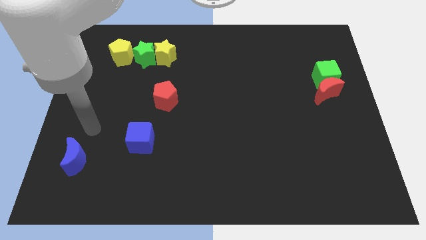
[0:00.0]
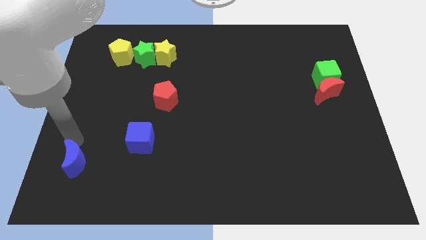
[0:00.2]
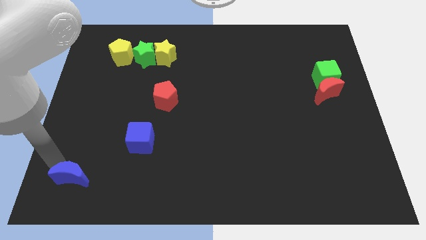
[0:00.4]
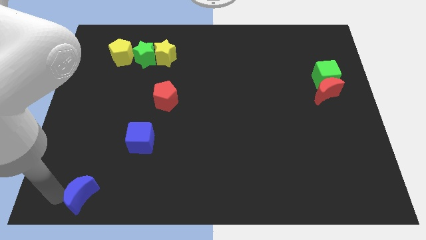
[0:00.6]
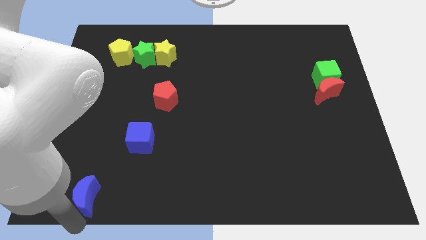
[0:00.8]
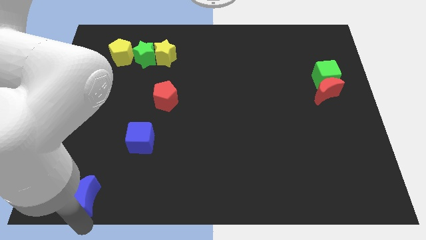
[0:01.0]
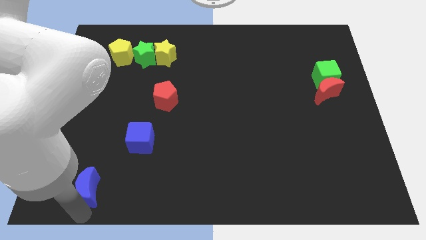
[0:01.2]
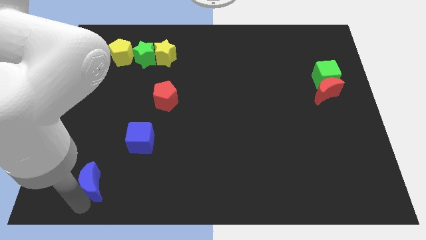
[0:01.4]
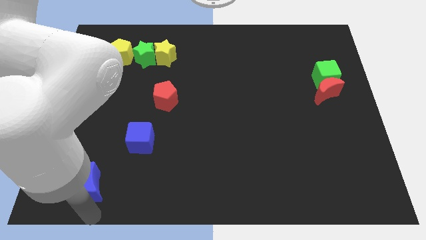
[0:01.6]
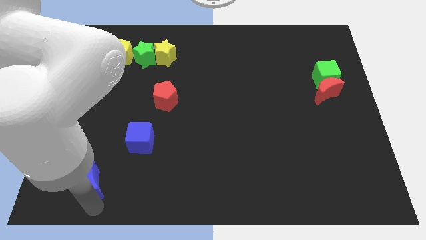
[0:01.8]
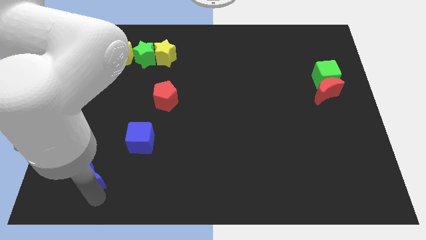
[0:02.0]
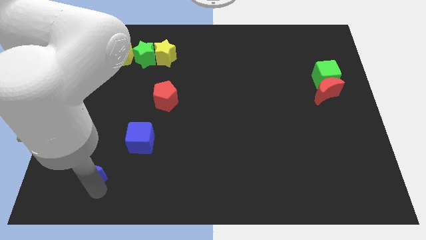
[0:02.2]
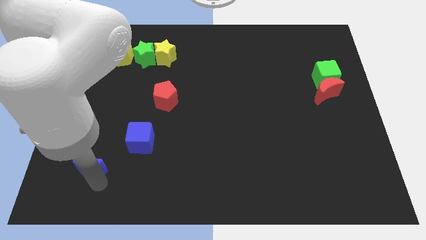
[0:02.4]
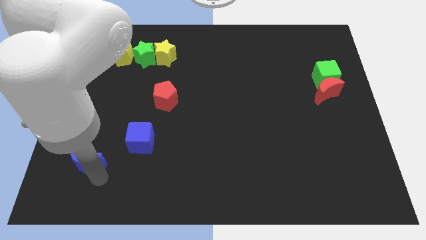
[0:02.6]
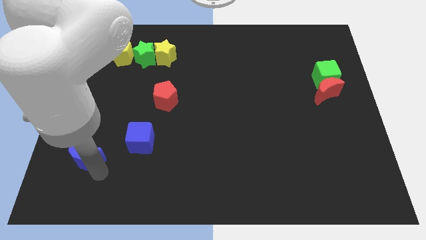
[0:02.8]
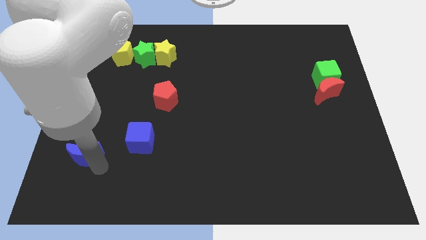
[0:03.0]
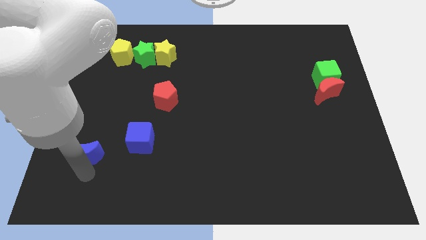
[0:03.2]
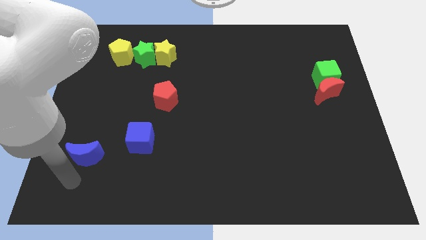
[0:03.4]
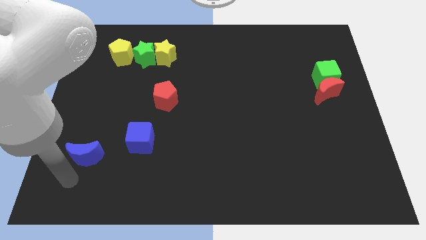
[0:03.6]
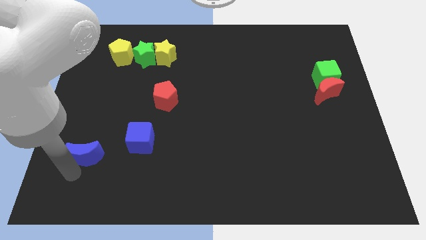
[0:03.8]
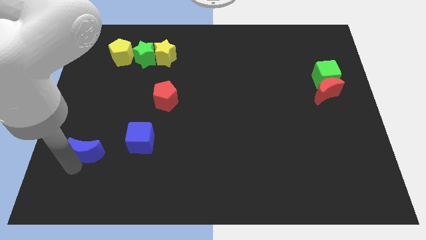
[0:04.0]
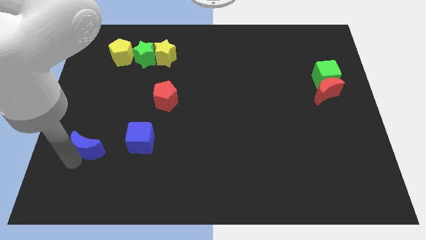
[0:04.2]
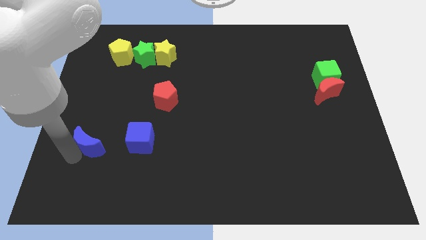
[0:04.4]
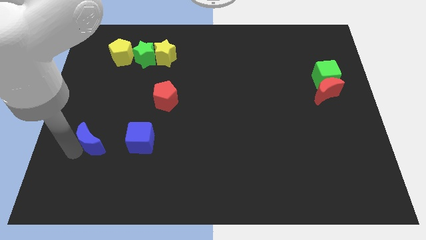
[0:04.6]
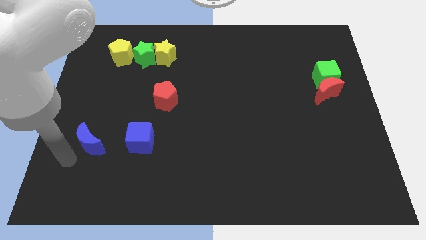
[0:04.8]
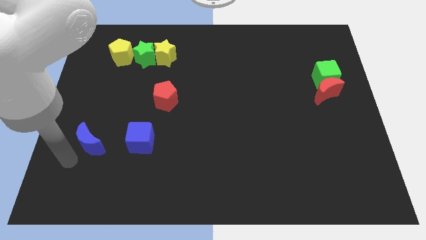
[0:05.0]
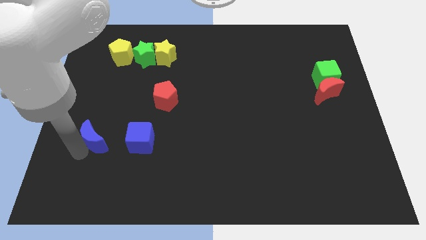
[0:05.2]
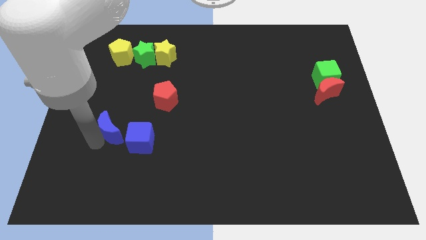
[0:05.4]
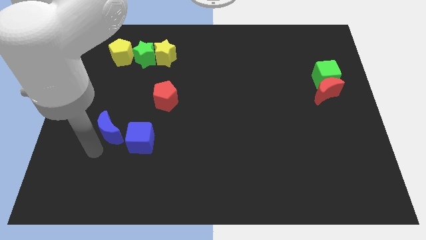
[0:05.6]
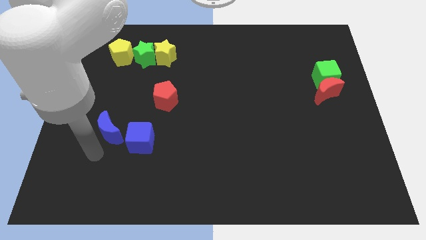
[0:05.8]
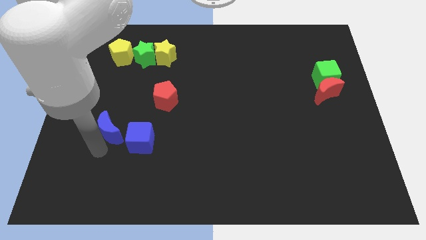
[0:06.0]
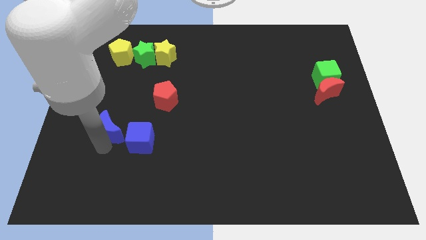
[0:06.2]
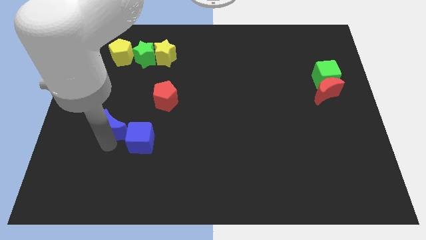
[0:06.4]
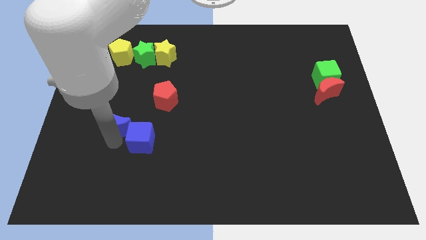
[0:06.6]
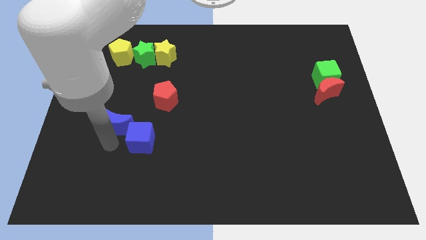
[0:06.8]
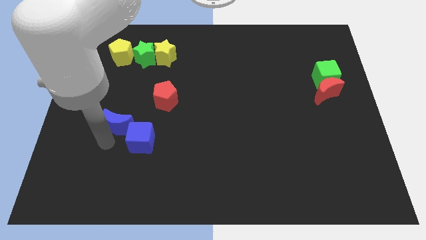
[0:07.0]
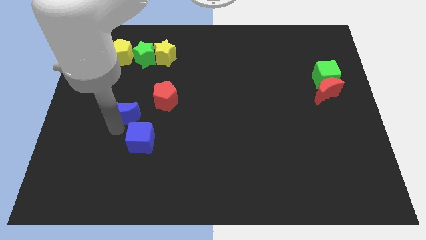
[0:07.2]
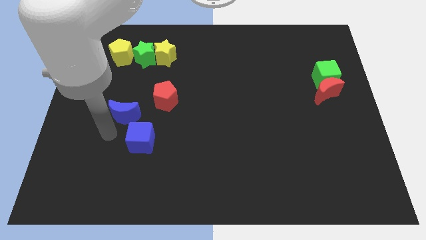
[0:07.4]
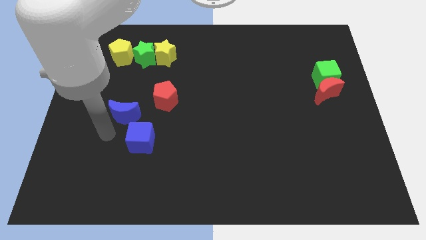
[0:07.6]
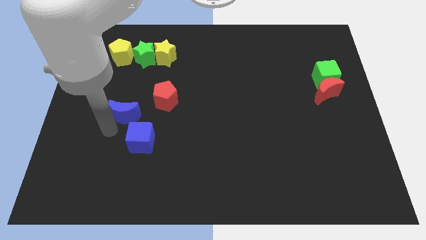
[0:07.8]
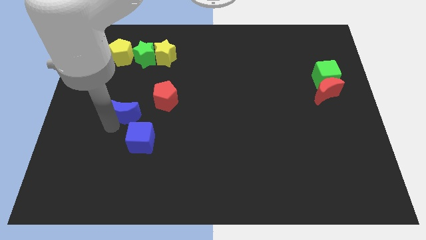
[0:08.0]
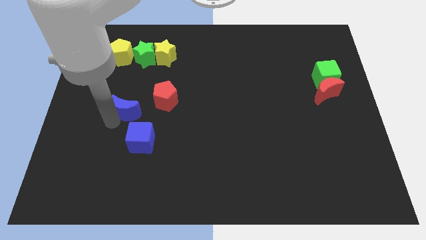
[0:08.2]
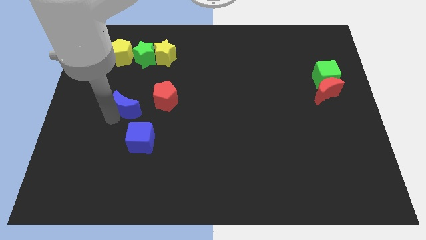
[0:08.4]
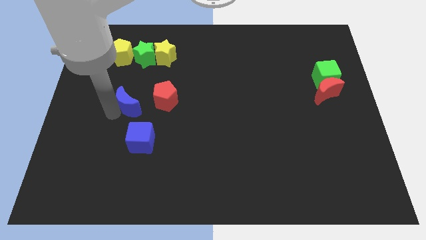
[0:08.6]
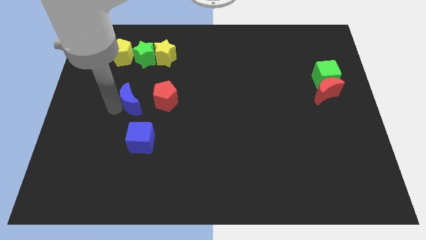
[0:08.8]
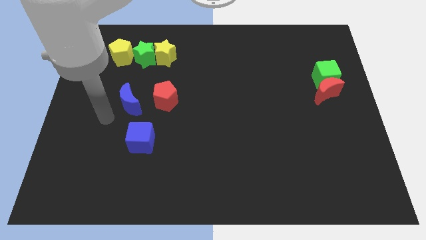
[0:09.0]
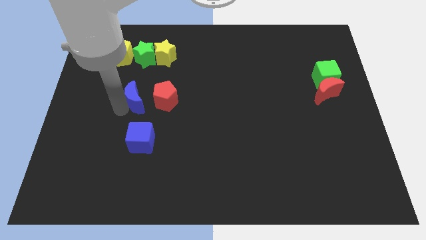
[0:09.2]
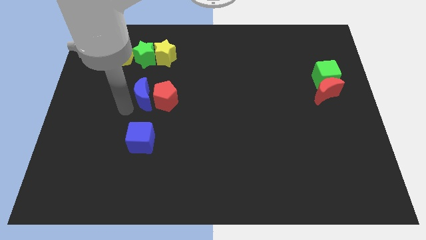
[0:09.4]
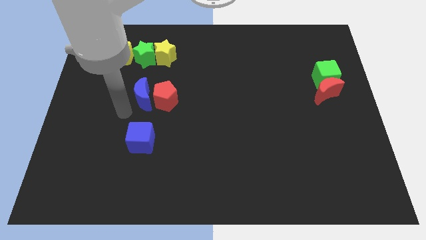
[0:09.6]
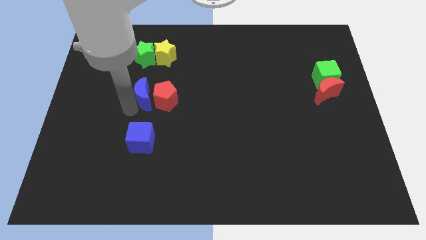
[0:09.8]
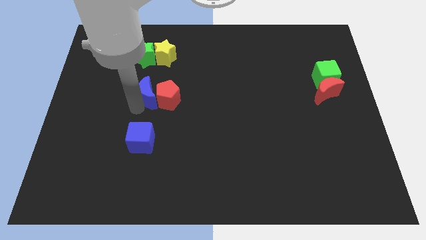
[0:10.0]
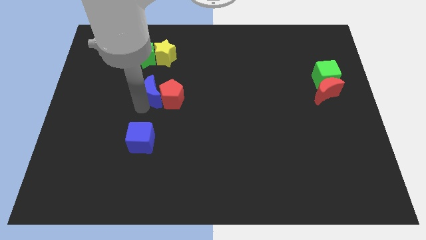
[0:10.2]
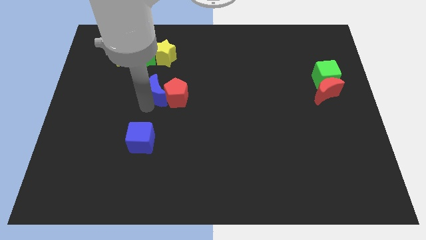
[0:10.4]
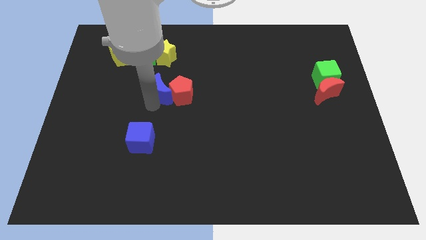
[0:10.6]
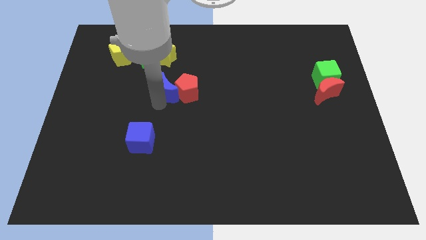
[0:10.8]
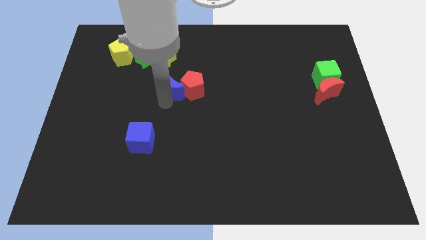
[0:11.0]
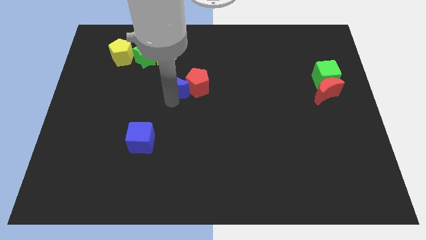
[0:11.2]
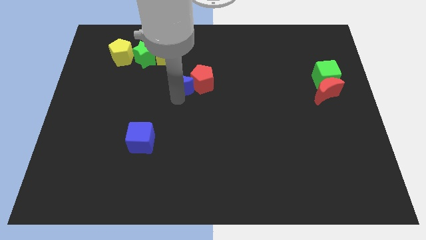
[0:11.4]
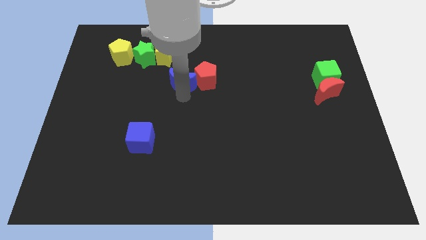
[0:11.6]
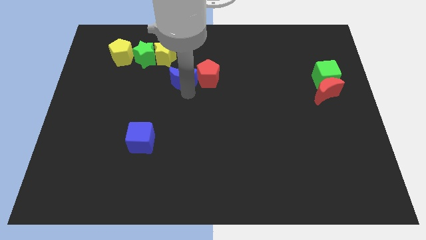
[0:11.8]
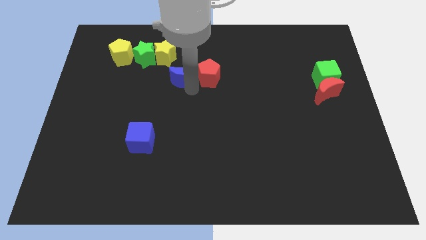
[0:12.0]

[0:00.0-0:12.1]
push the blue moon to the bottom right side of the green star

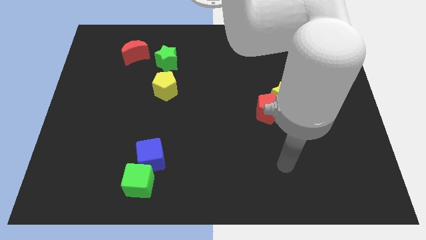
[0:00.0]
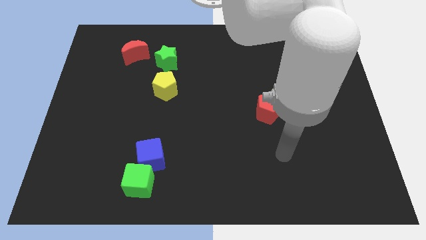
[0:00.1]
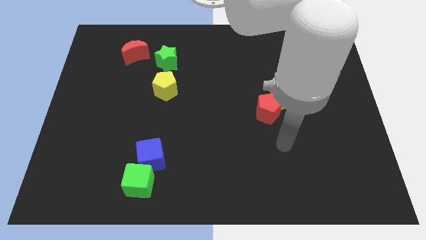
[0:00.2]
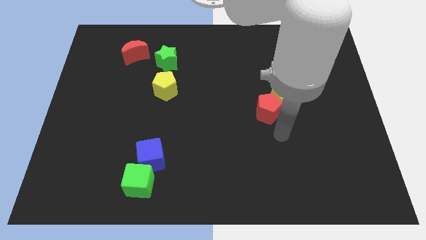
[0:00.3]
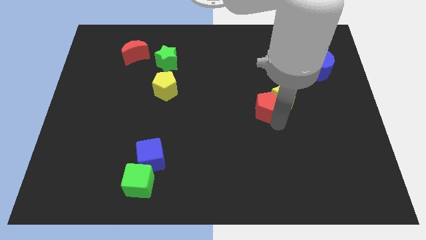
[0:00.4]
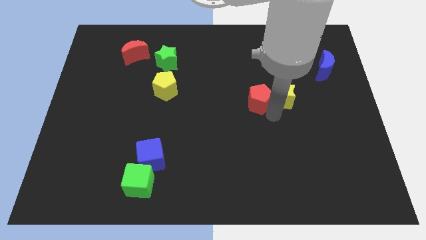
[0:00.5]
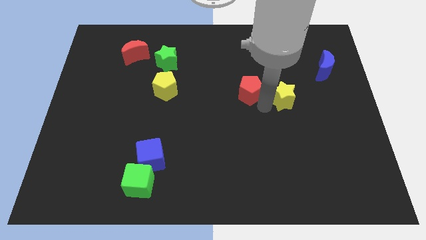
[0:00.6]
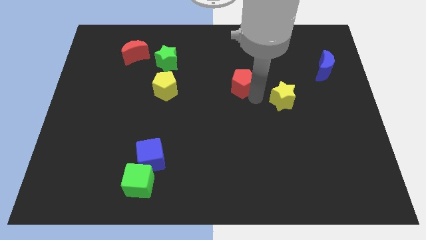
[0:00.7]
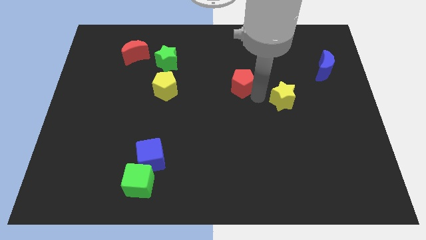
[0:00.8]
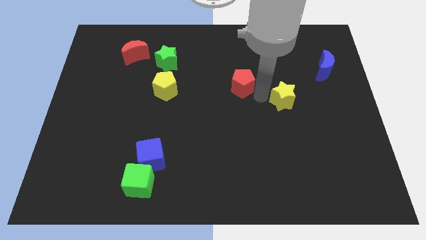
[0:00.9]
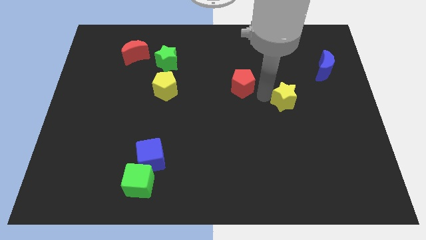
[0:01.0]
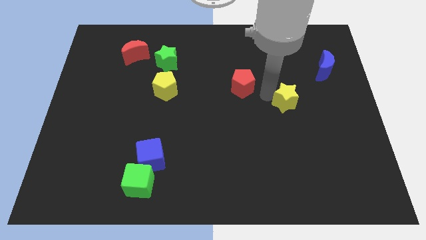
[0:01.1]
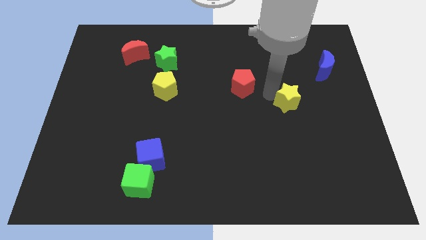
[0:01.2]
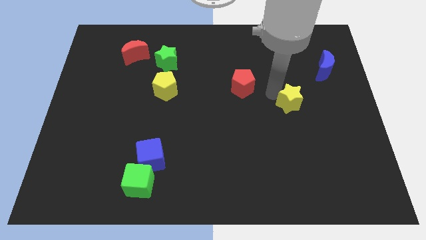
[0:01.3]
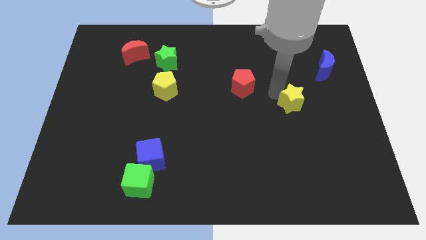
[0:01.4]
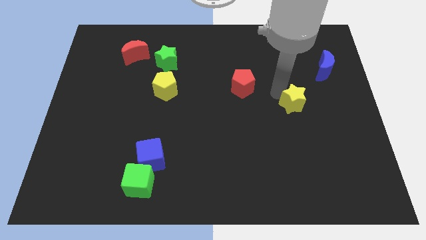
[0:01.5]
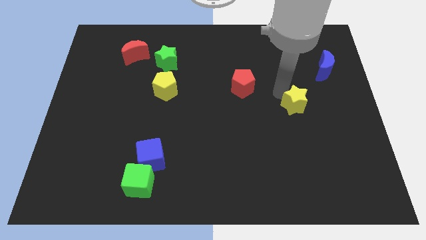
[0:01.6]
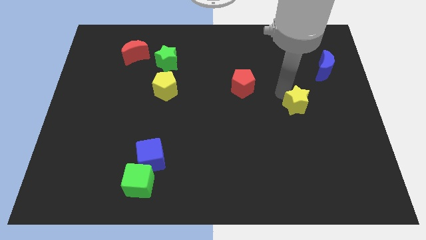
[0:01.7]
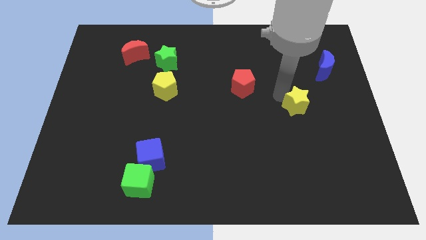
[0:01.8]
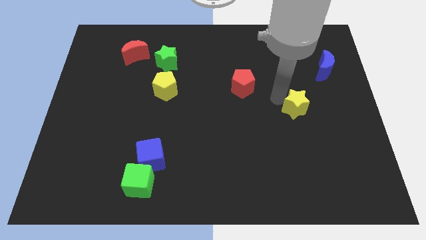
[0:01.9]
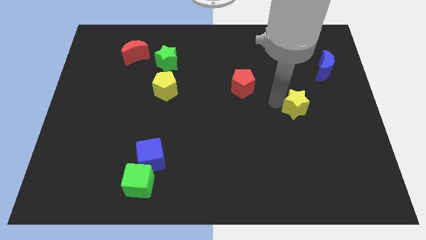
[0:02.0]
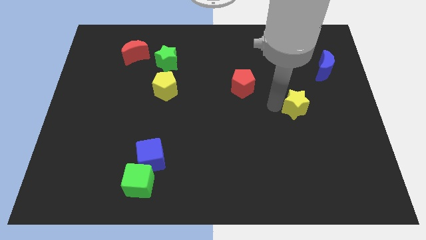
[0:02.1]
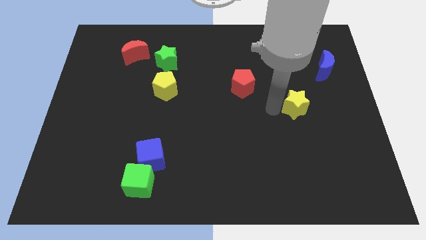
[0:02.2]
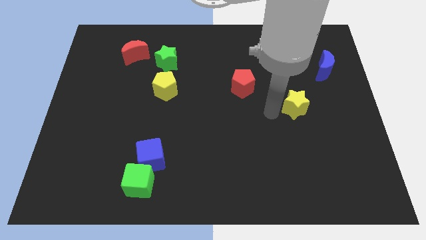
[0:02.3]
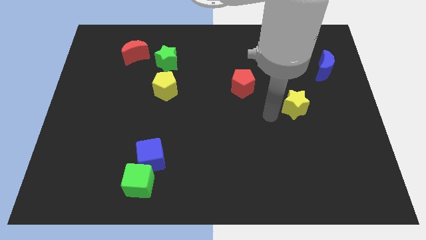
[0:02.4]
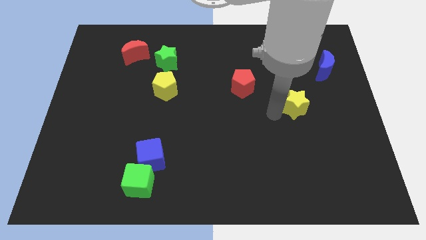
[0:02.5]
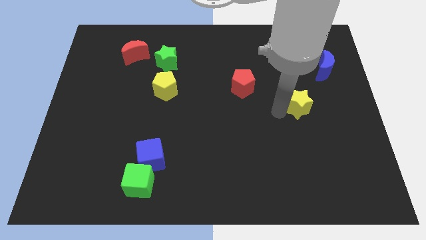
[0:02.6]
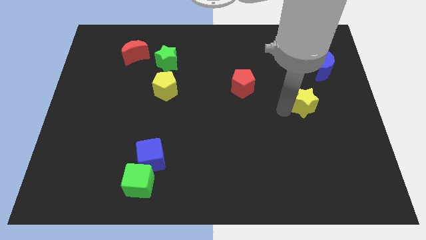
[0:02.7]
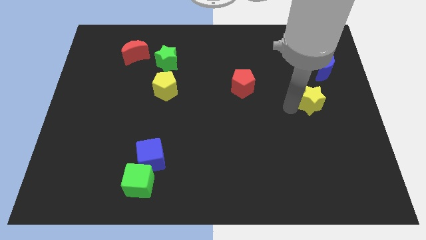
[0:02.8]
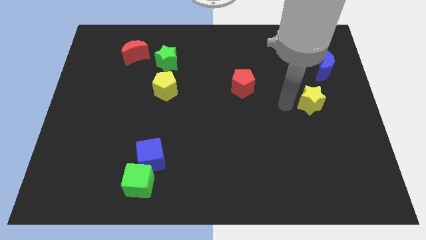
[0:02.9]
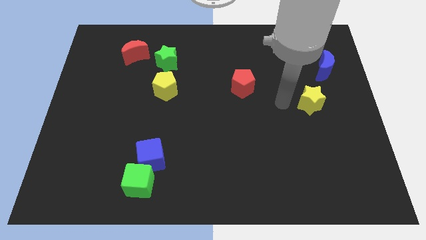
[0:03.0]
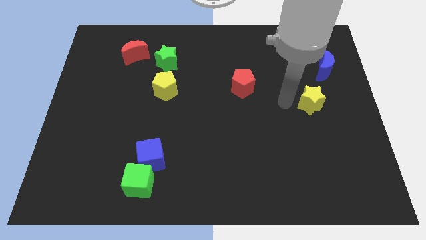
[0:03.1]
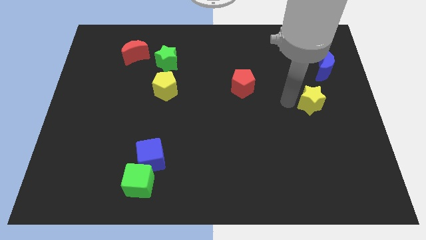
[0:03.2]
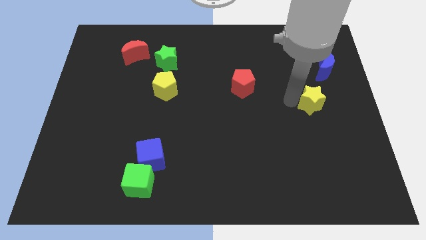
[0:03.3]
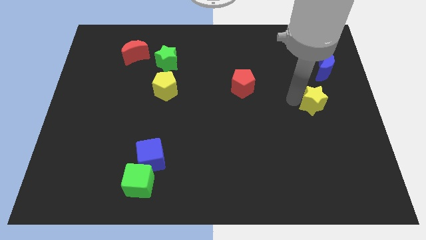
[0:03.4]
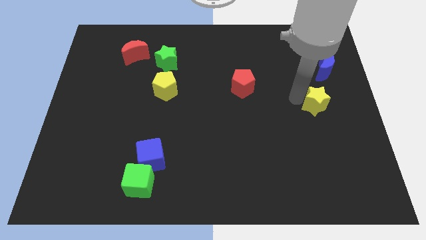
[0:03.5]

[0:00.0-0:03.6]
put the yellow star below the blue moon
